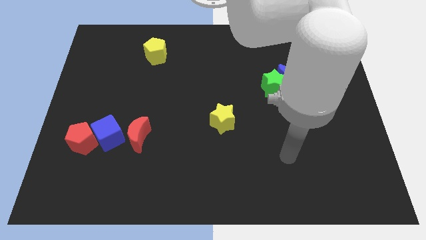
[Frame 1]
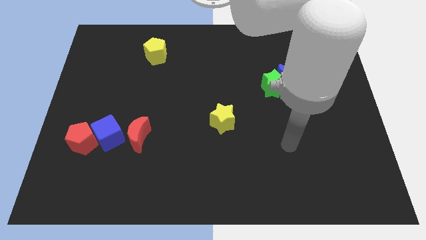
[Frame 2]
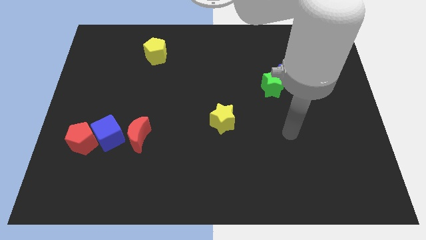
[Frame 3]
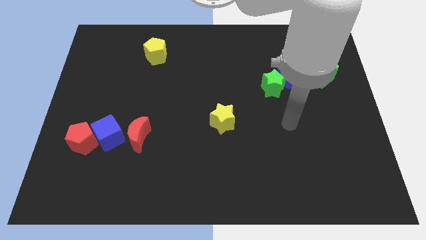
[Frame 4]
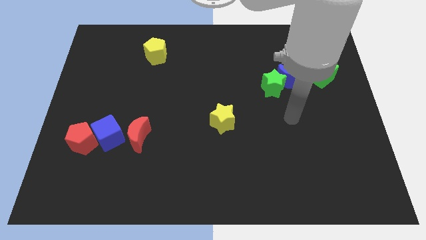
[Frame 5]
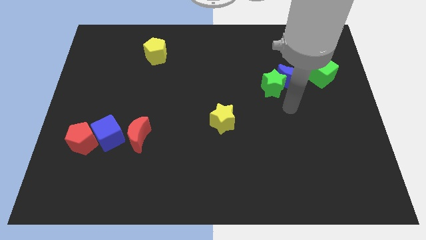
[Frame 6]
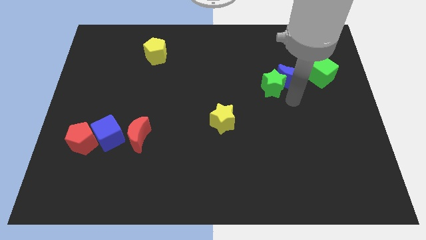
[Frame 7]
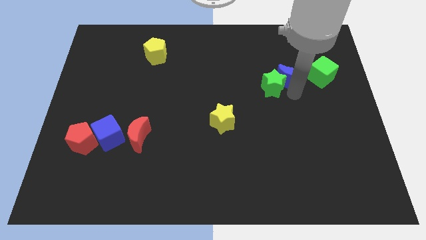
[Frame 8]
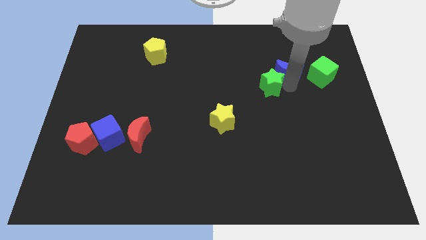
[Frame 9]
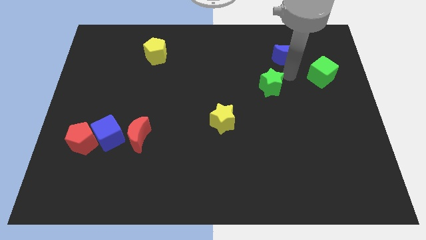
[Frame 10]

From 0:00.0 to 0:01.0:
move the green star away from the blue moon

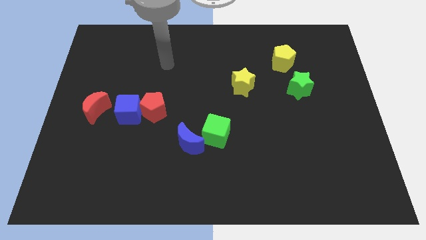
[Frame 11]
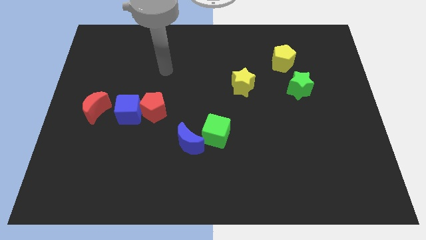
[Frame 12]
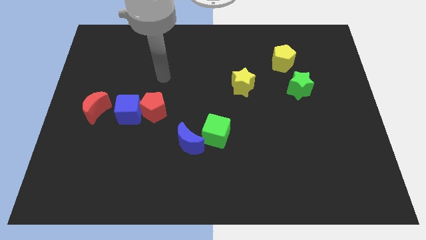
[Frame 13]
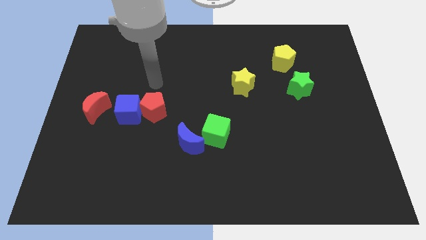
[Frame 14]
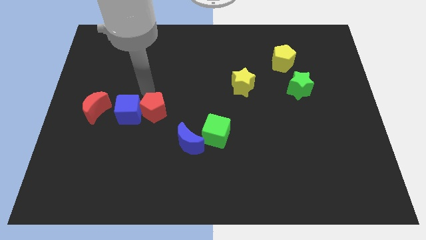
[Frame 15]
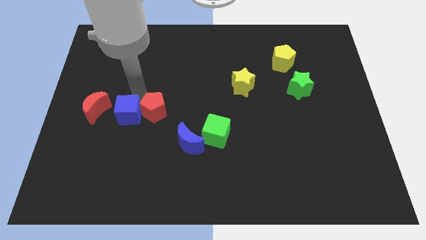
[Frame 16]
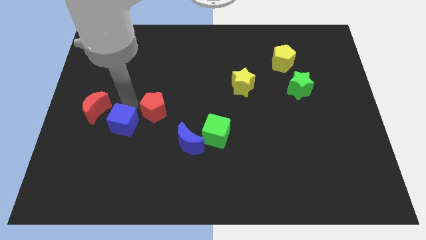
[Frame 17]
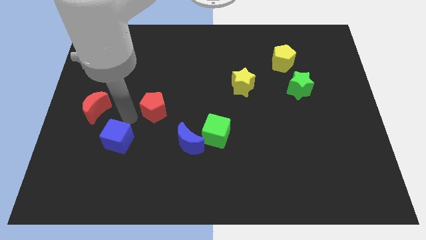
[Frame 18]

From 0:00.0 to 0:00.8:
separate the red pentagon from the blue cube

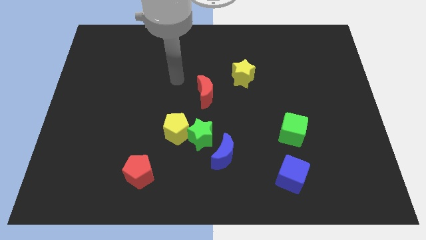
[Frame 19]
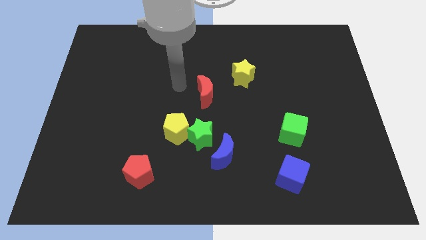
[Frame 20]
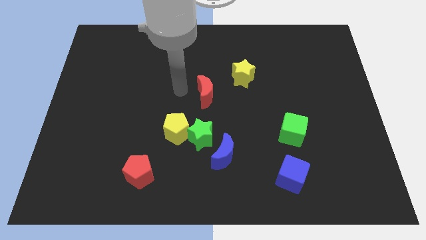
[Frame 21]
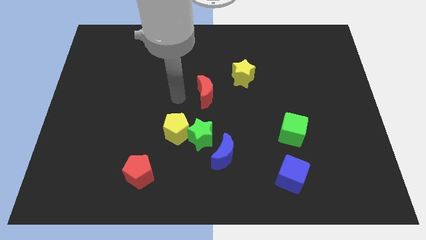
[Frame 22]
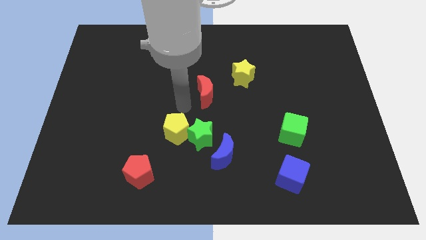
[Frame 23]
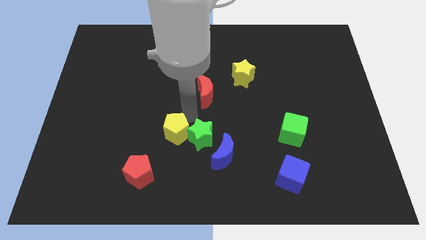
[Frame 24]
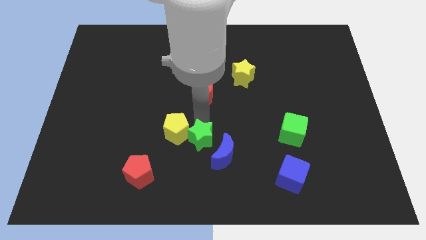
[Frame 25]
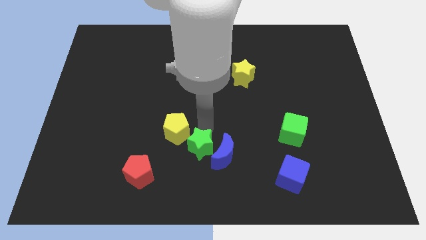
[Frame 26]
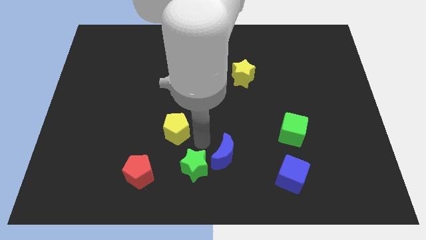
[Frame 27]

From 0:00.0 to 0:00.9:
pull the yellow pentagon apart from the green star

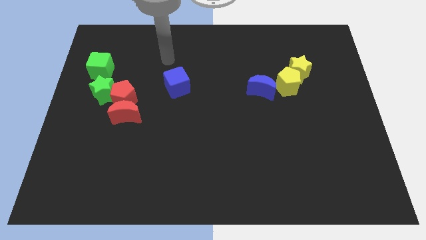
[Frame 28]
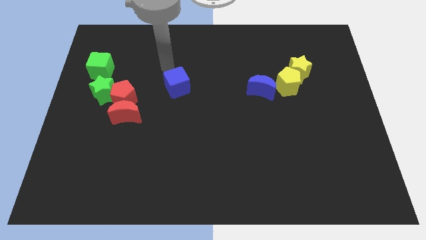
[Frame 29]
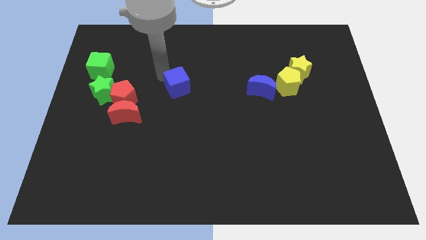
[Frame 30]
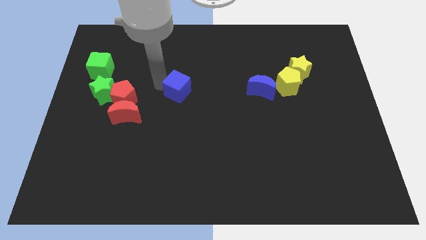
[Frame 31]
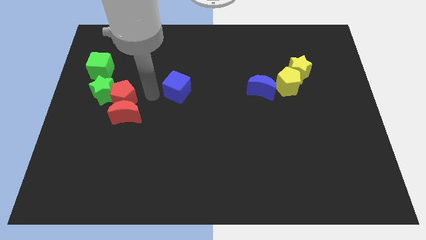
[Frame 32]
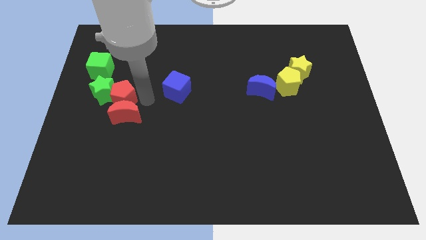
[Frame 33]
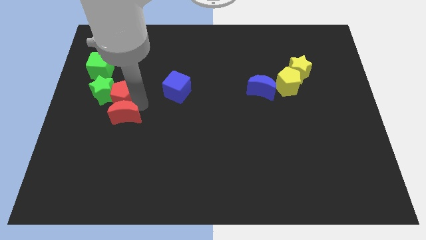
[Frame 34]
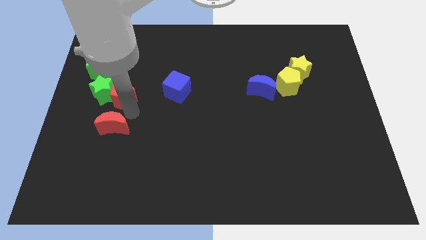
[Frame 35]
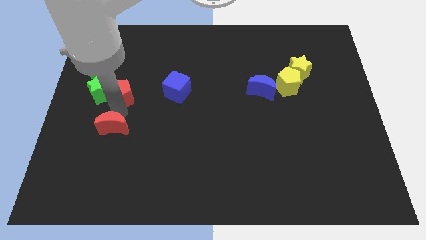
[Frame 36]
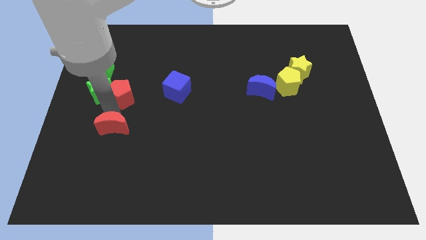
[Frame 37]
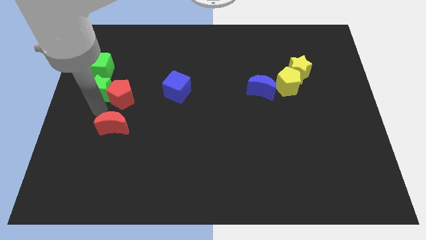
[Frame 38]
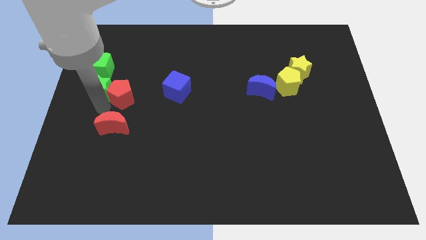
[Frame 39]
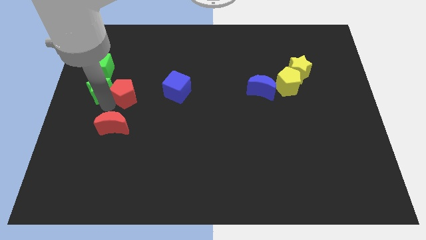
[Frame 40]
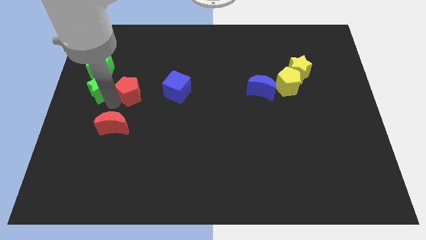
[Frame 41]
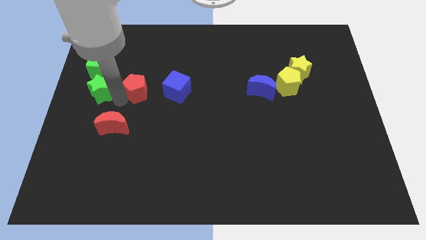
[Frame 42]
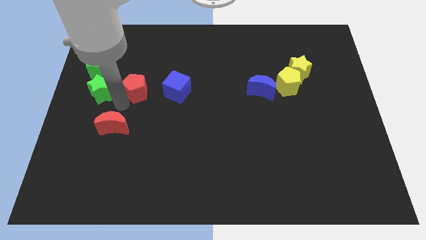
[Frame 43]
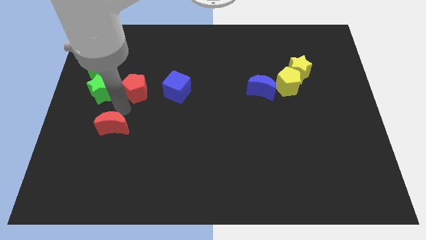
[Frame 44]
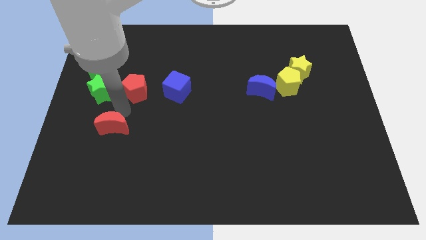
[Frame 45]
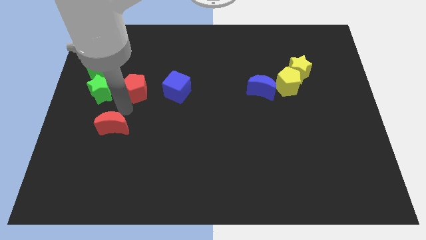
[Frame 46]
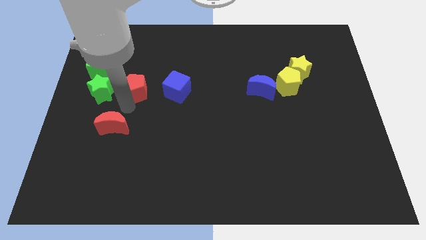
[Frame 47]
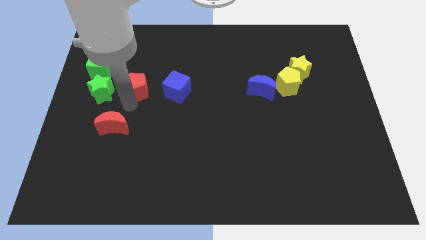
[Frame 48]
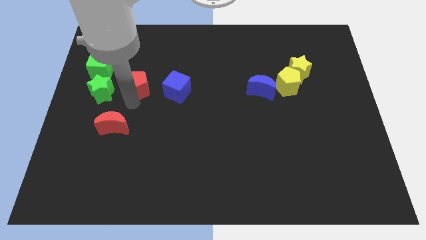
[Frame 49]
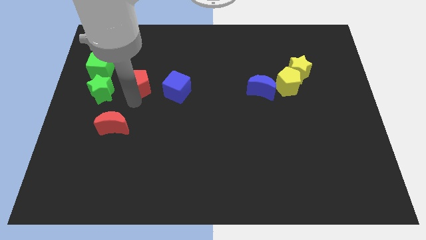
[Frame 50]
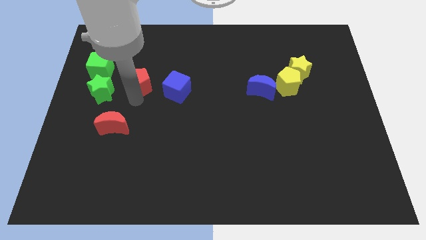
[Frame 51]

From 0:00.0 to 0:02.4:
separate the red pentagon from the red moon and green star

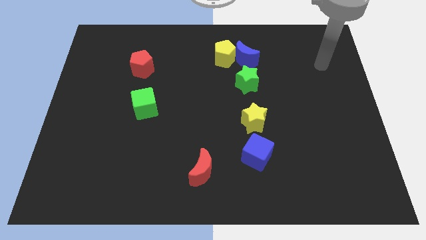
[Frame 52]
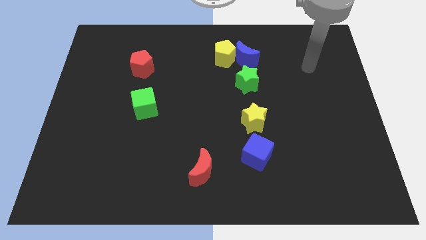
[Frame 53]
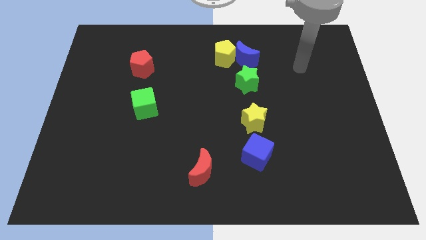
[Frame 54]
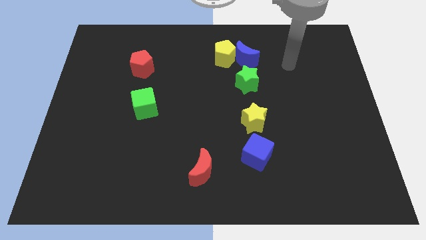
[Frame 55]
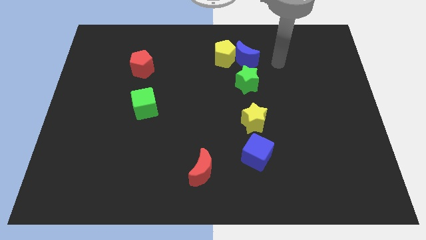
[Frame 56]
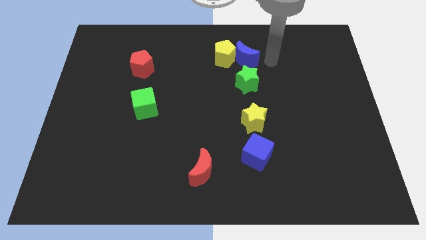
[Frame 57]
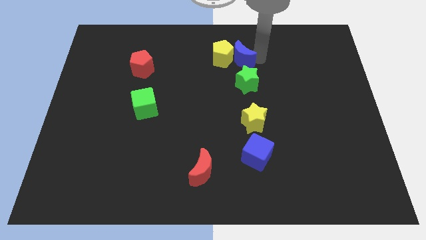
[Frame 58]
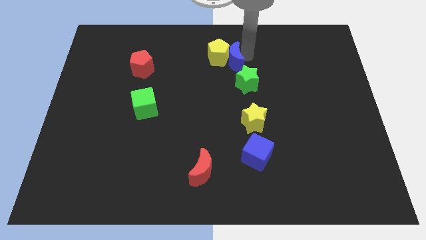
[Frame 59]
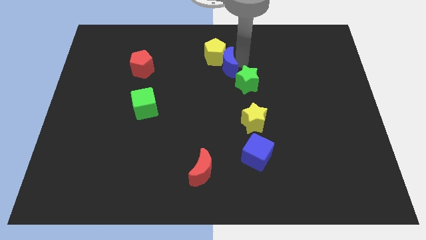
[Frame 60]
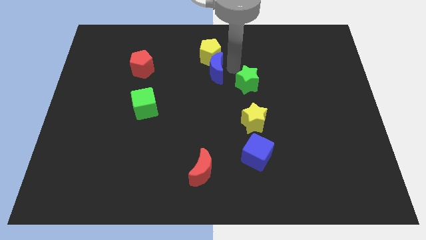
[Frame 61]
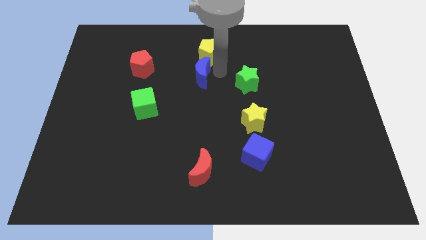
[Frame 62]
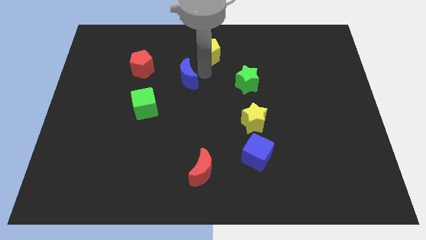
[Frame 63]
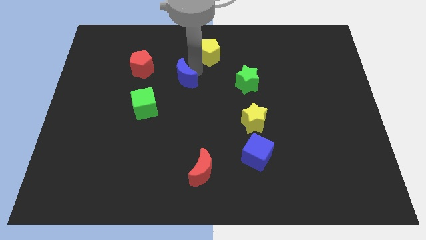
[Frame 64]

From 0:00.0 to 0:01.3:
separate the yellow pentagon from the blue moon

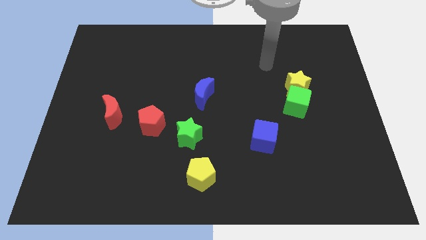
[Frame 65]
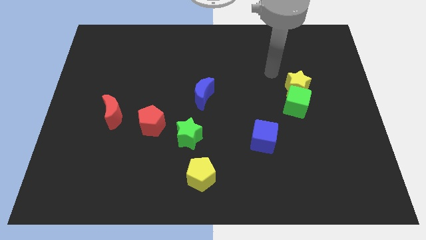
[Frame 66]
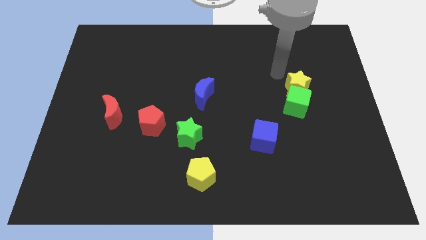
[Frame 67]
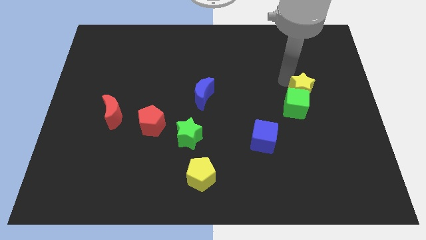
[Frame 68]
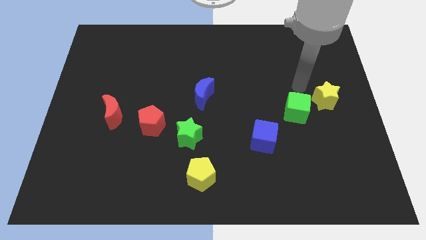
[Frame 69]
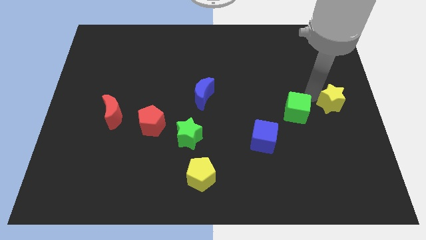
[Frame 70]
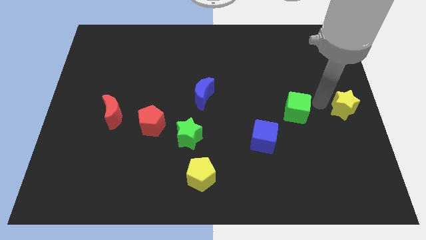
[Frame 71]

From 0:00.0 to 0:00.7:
separate the green cube from the yellow star

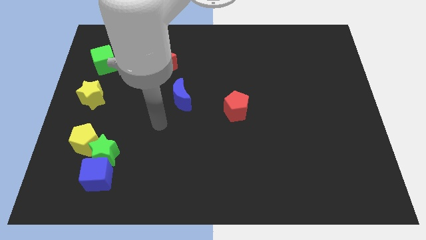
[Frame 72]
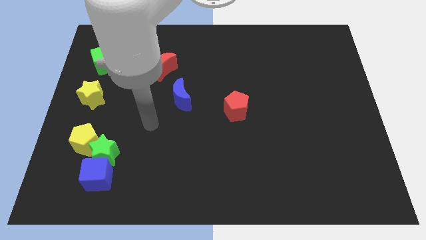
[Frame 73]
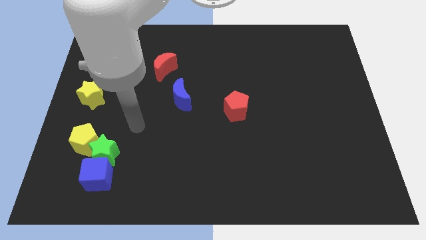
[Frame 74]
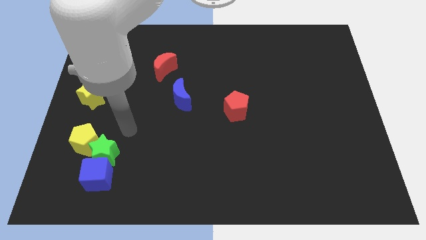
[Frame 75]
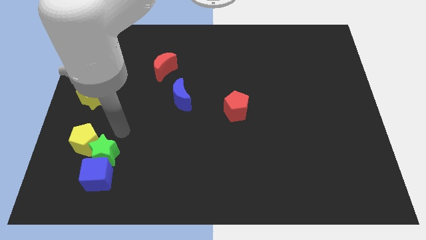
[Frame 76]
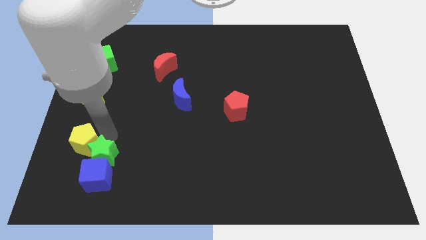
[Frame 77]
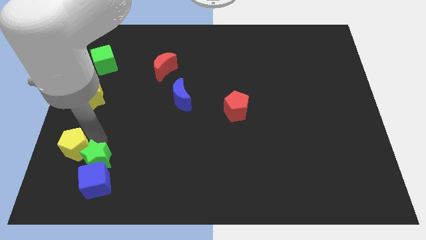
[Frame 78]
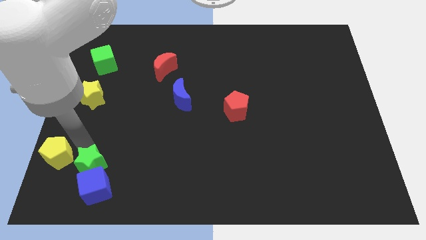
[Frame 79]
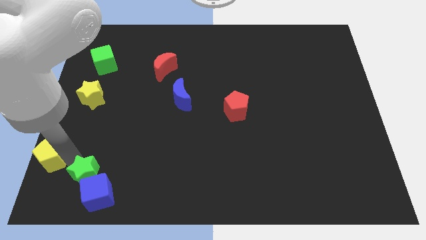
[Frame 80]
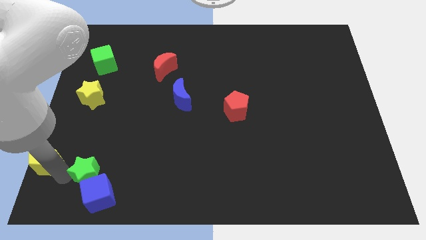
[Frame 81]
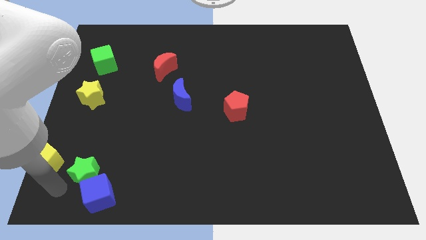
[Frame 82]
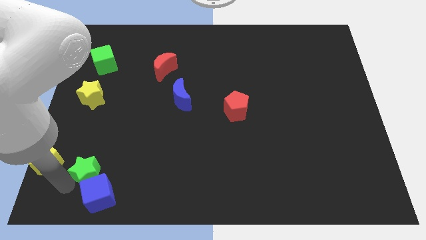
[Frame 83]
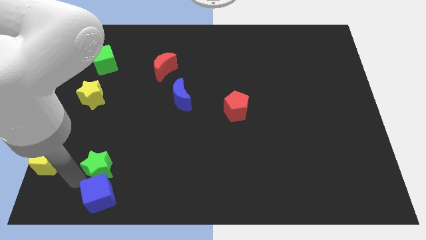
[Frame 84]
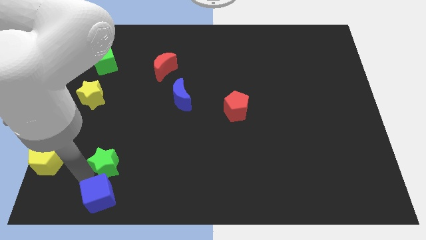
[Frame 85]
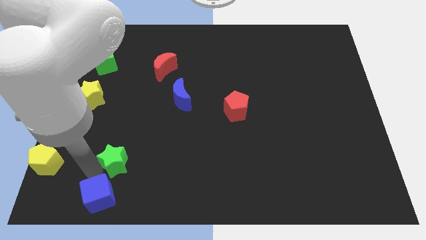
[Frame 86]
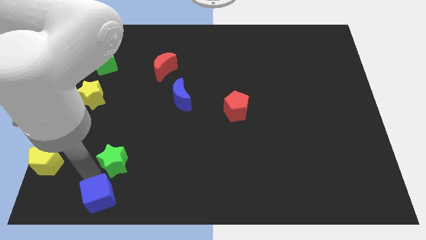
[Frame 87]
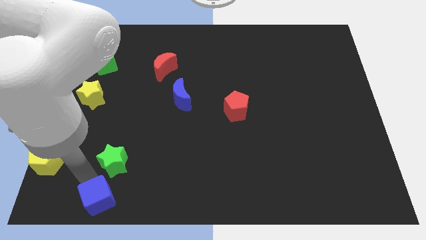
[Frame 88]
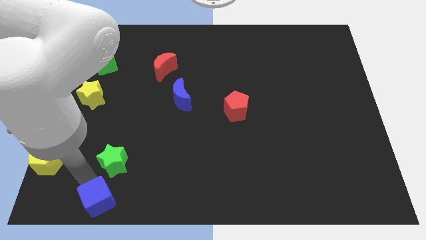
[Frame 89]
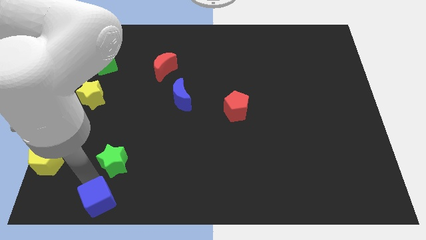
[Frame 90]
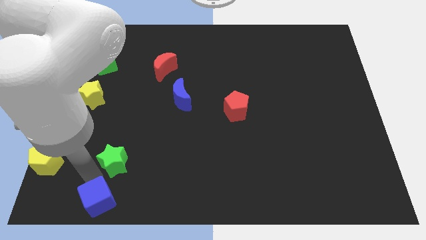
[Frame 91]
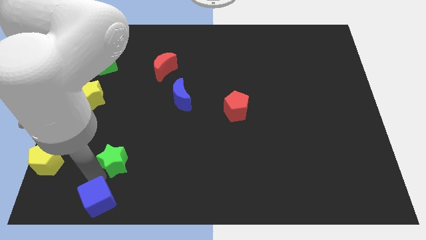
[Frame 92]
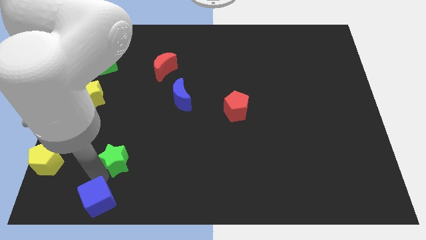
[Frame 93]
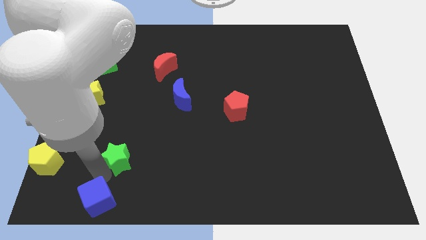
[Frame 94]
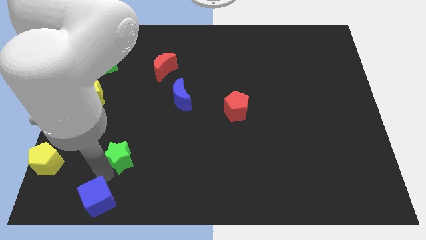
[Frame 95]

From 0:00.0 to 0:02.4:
pull the green star apart from the yellow pentagon and blue cube
